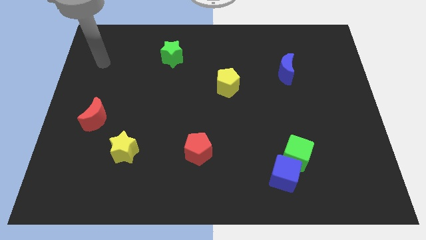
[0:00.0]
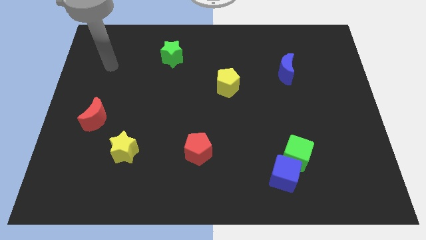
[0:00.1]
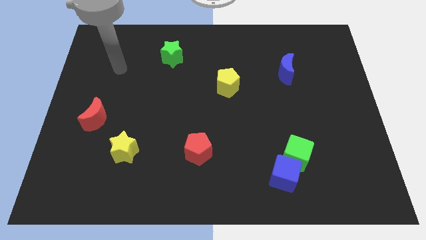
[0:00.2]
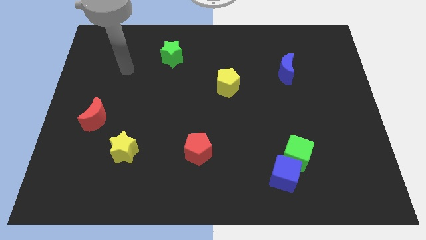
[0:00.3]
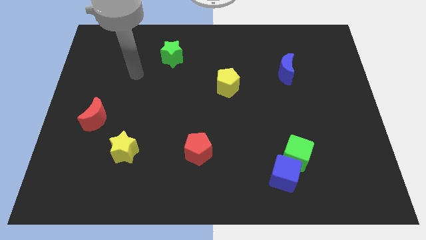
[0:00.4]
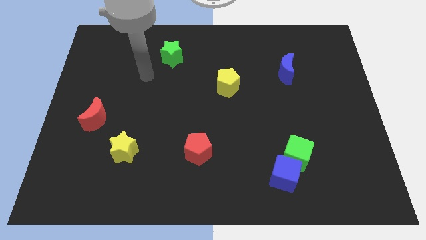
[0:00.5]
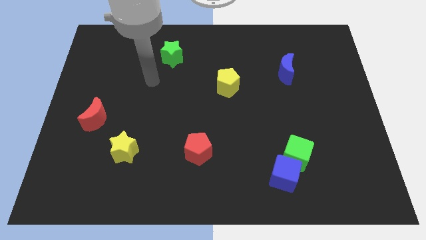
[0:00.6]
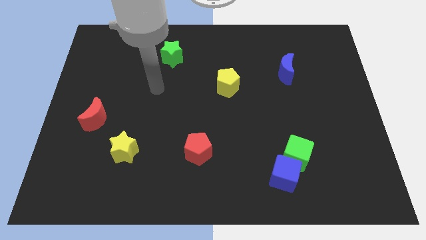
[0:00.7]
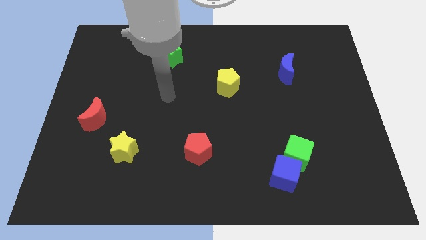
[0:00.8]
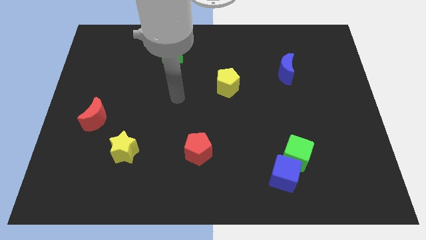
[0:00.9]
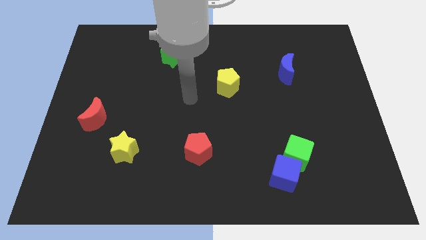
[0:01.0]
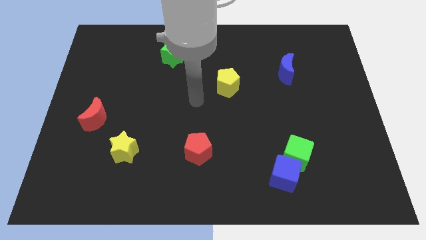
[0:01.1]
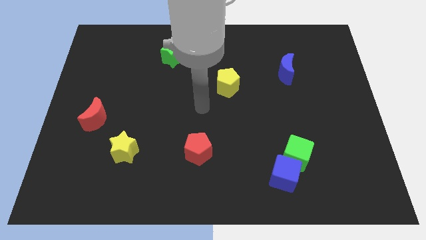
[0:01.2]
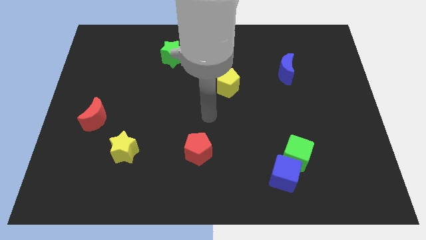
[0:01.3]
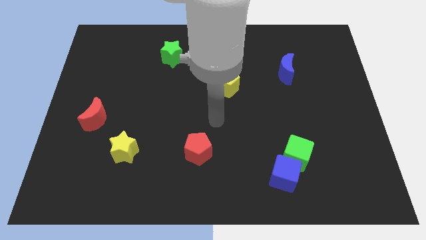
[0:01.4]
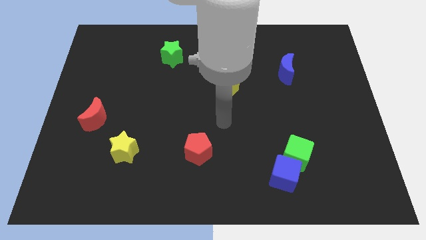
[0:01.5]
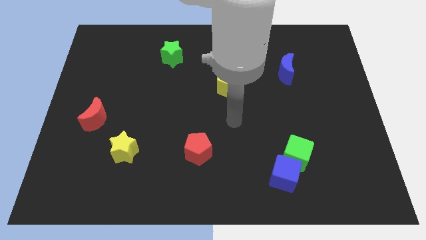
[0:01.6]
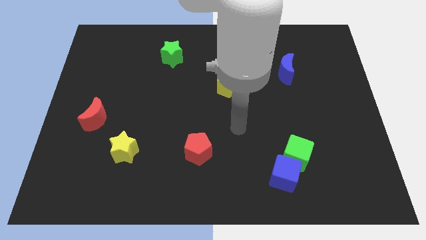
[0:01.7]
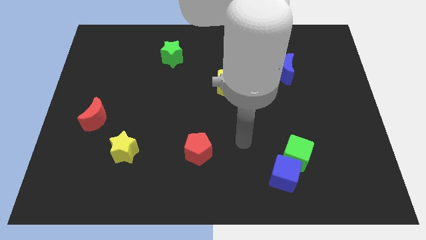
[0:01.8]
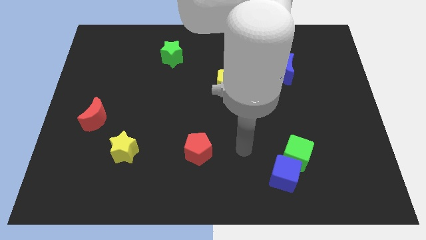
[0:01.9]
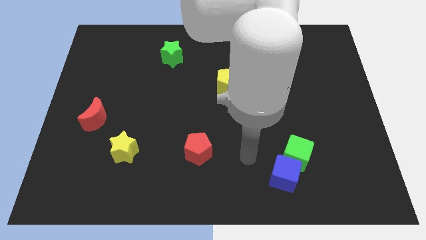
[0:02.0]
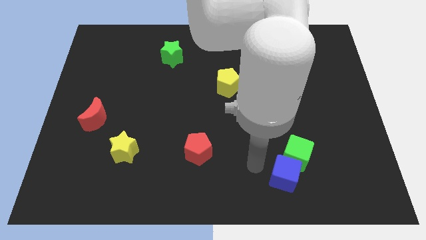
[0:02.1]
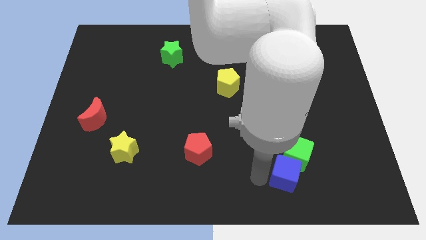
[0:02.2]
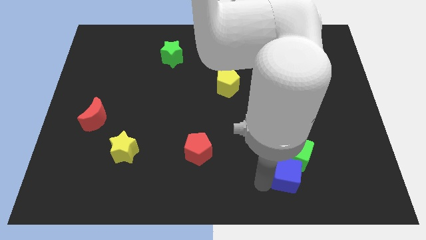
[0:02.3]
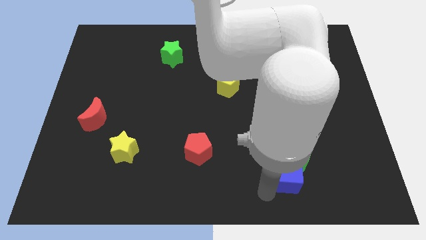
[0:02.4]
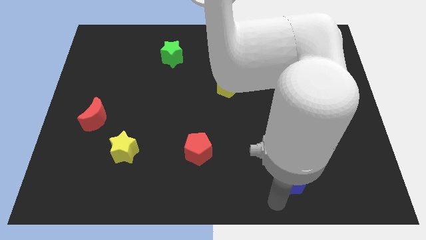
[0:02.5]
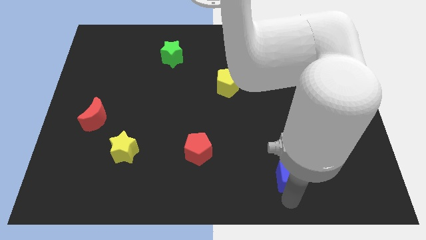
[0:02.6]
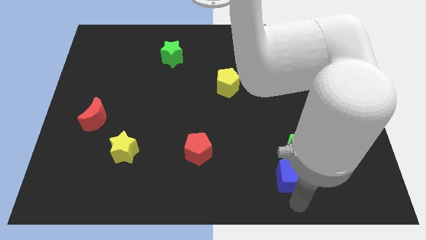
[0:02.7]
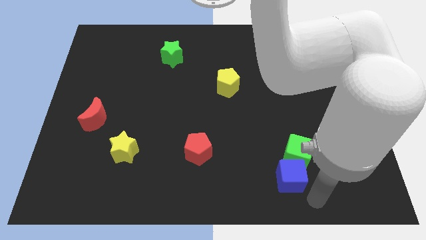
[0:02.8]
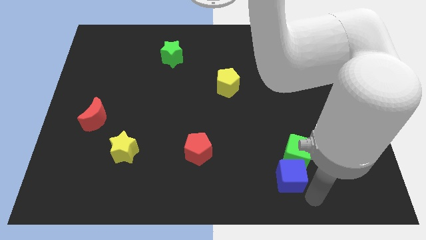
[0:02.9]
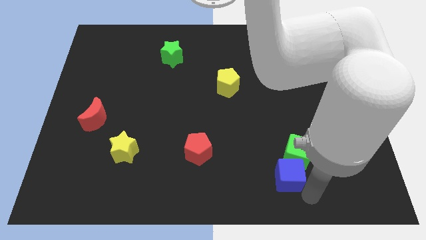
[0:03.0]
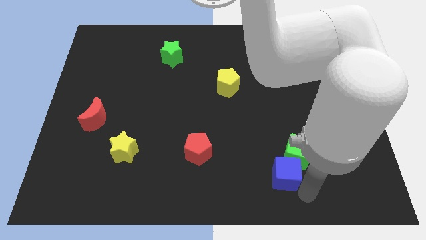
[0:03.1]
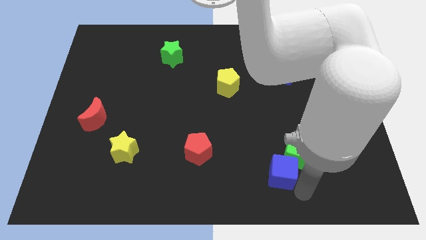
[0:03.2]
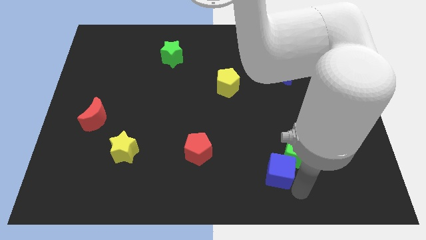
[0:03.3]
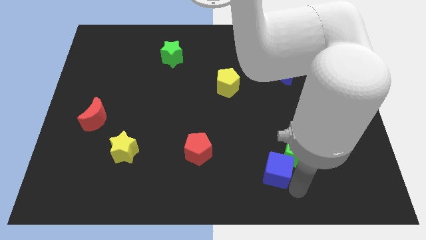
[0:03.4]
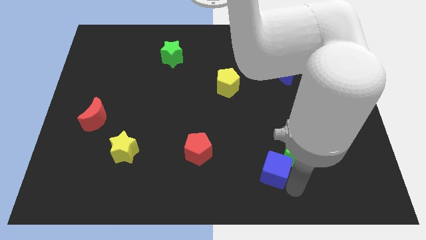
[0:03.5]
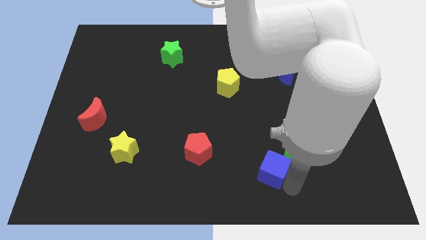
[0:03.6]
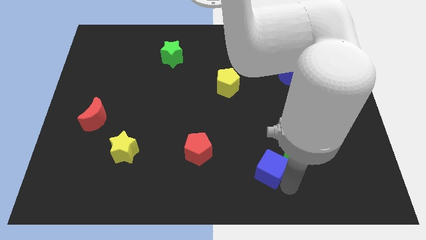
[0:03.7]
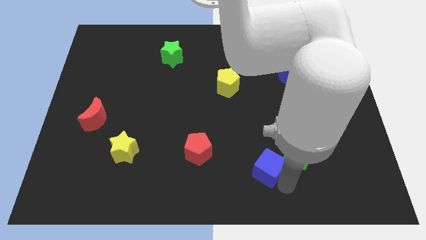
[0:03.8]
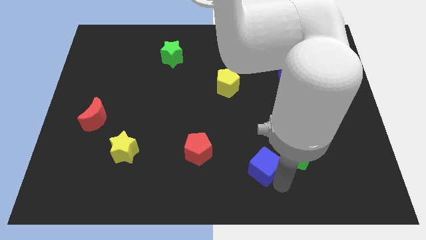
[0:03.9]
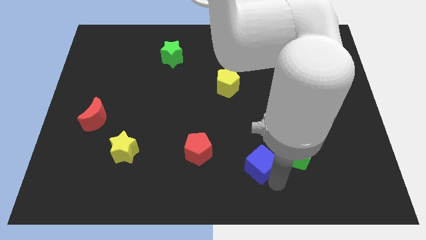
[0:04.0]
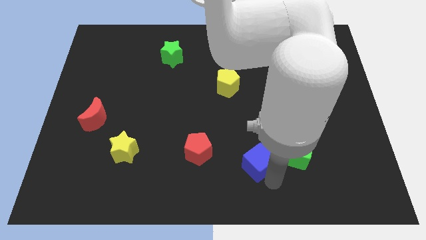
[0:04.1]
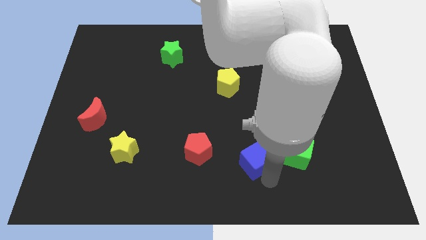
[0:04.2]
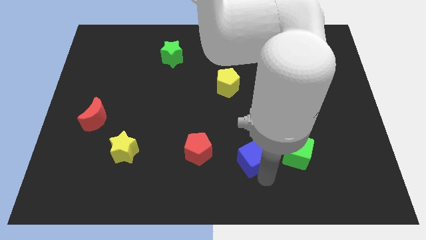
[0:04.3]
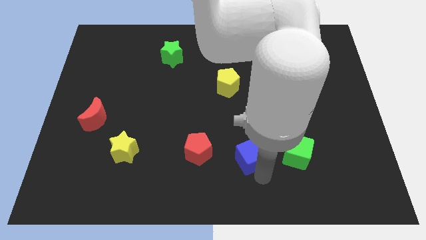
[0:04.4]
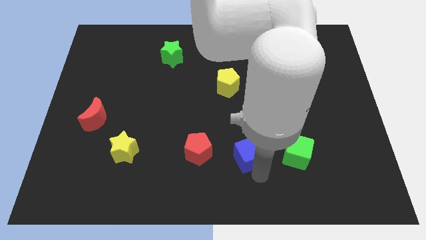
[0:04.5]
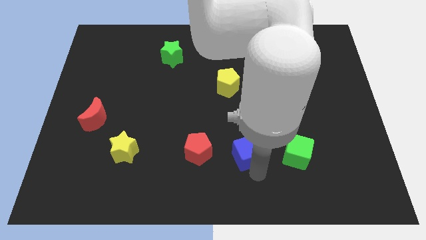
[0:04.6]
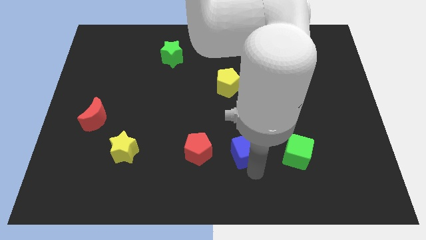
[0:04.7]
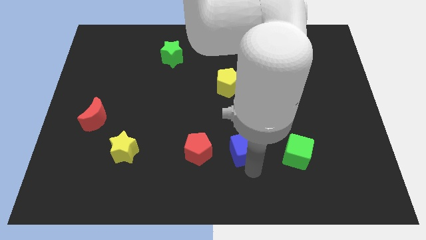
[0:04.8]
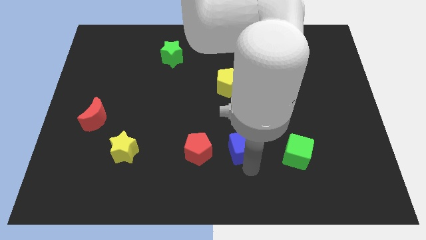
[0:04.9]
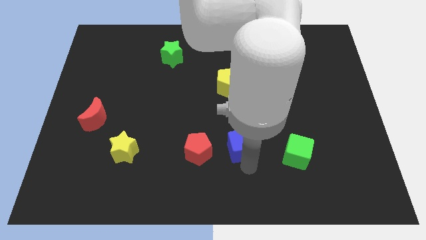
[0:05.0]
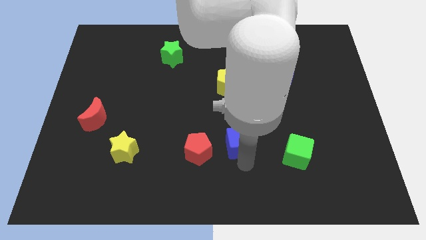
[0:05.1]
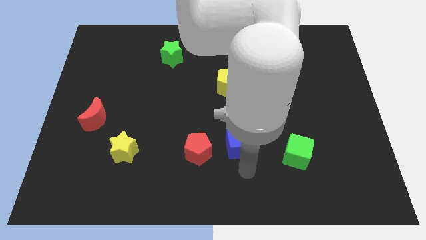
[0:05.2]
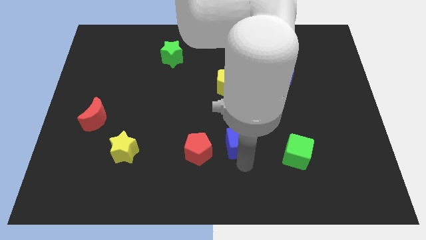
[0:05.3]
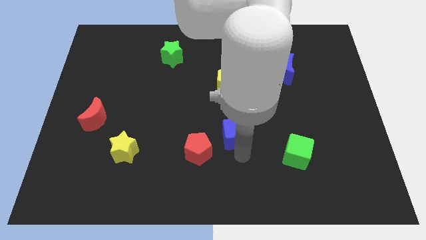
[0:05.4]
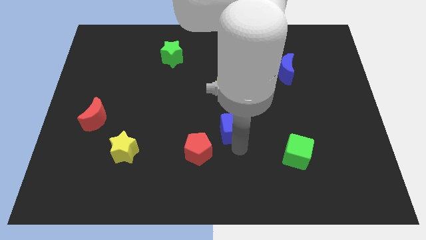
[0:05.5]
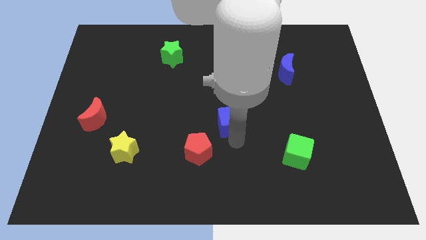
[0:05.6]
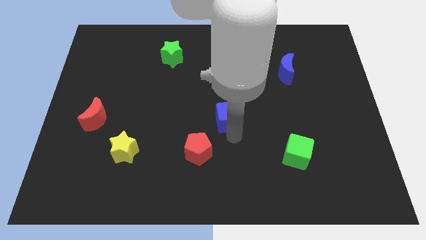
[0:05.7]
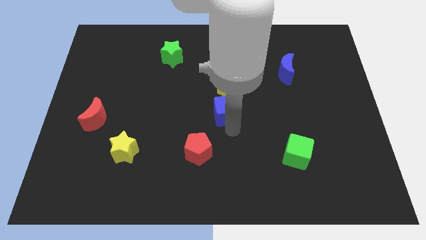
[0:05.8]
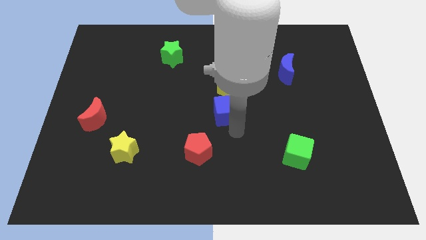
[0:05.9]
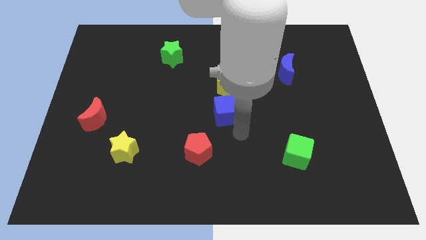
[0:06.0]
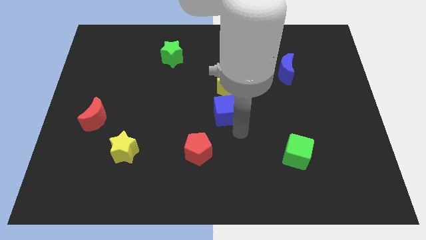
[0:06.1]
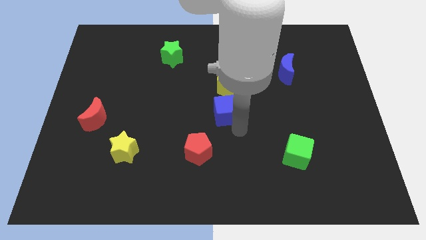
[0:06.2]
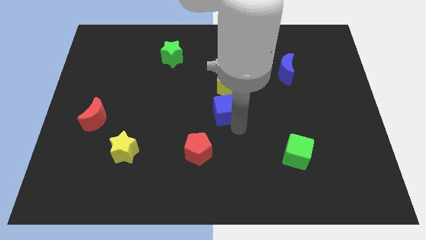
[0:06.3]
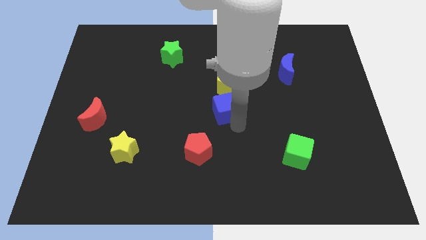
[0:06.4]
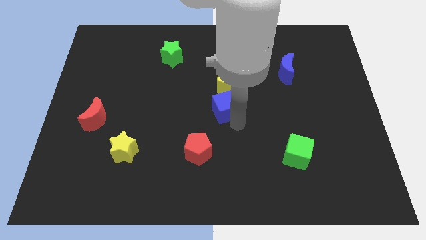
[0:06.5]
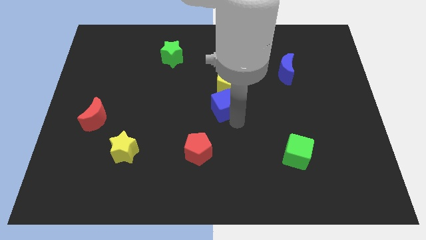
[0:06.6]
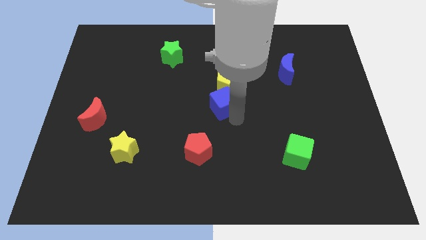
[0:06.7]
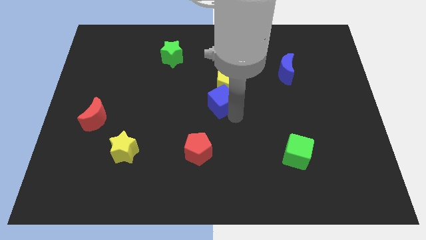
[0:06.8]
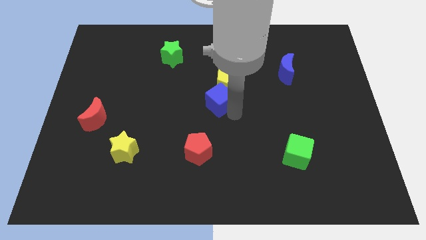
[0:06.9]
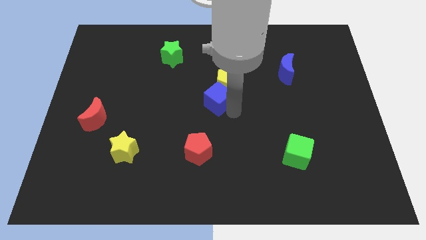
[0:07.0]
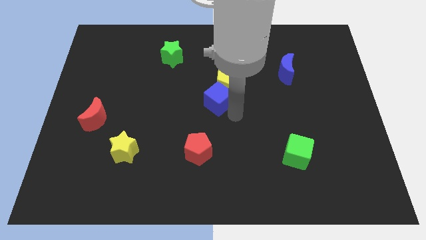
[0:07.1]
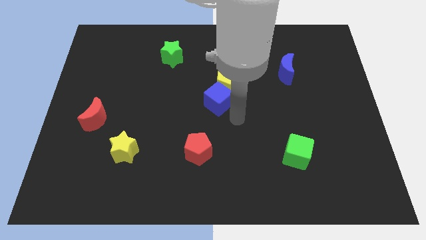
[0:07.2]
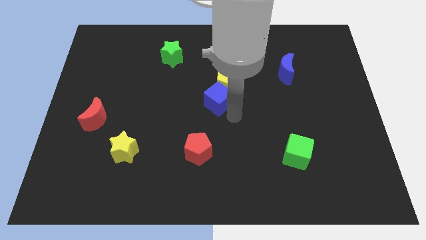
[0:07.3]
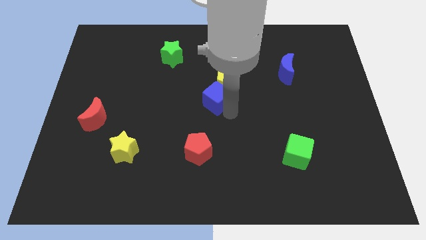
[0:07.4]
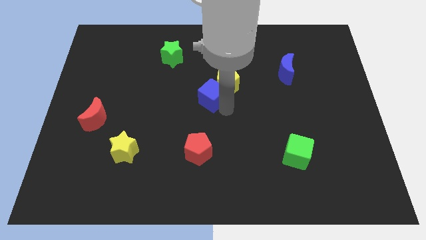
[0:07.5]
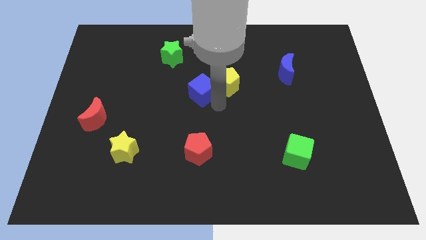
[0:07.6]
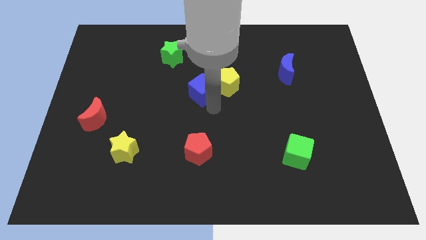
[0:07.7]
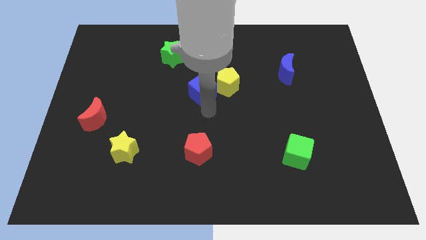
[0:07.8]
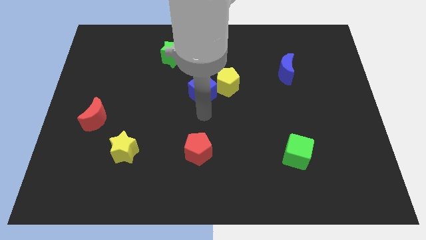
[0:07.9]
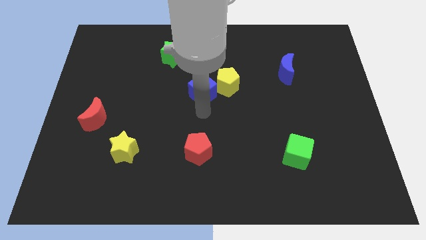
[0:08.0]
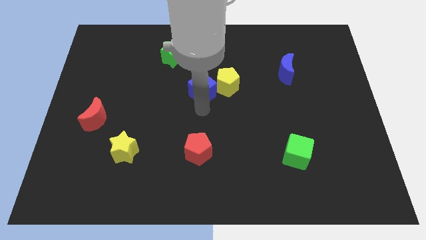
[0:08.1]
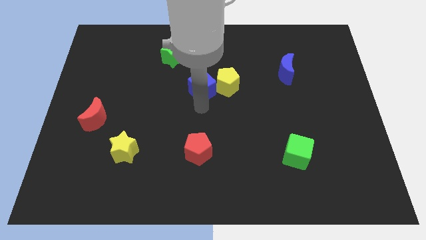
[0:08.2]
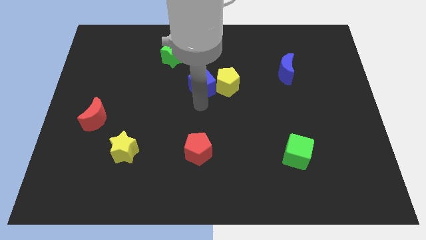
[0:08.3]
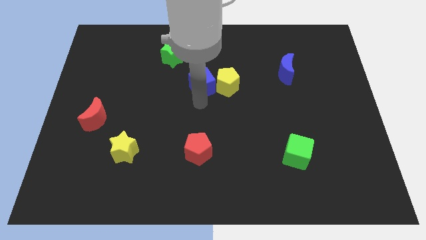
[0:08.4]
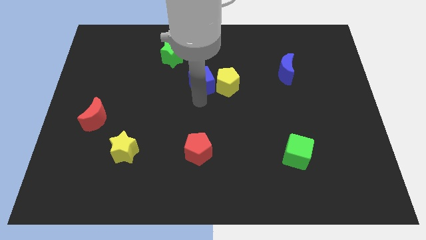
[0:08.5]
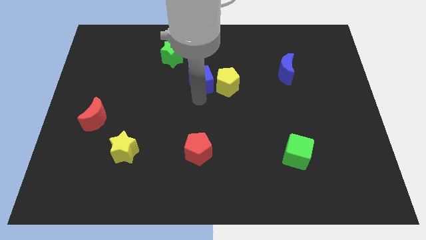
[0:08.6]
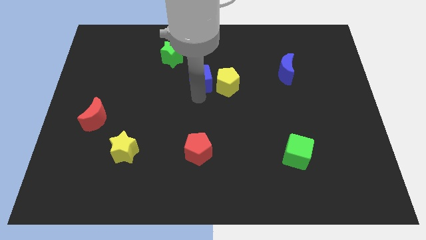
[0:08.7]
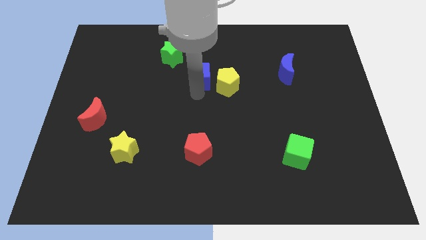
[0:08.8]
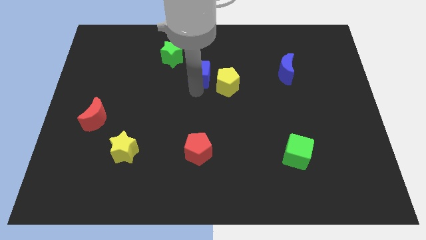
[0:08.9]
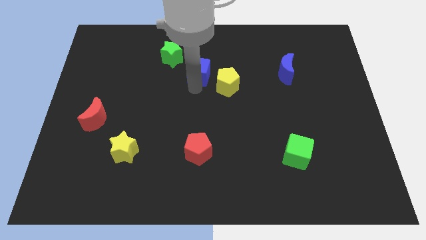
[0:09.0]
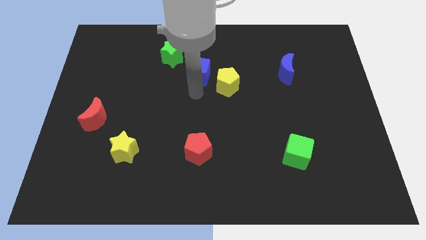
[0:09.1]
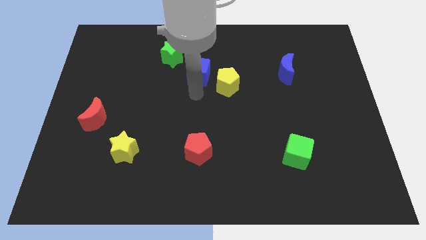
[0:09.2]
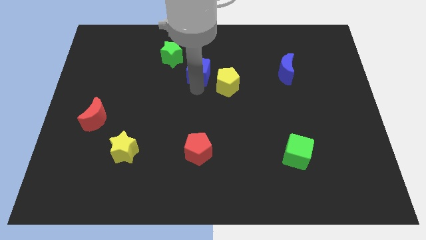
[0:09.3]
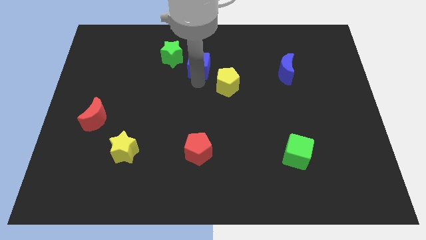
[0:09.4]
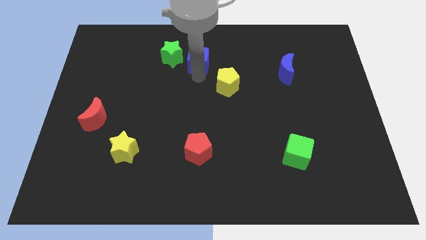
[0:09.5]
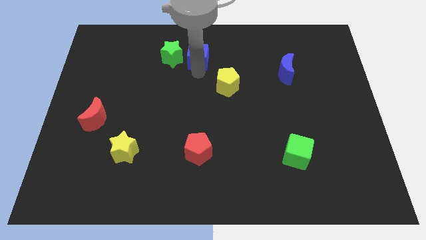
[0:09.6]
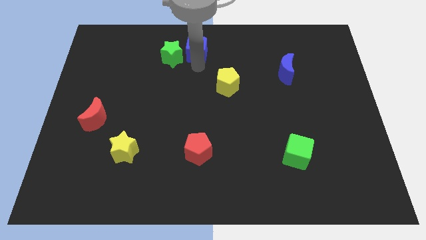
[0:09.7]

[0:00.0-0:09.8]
move the blue cube to the top
